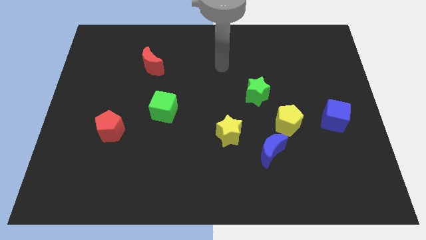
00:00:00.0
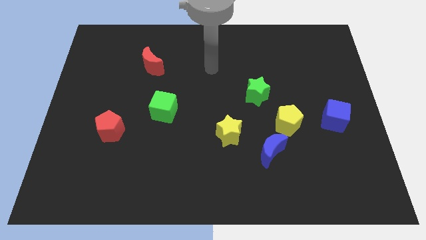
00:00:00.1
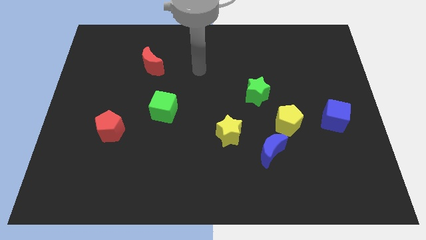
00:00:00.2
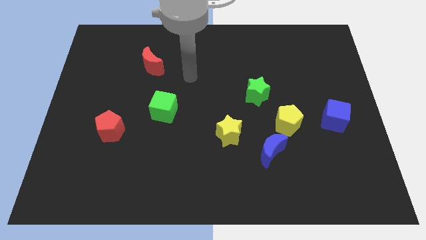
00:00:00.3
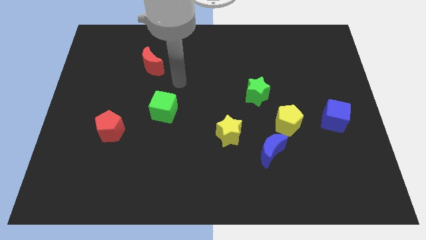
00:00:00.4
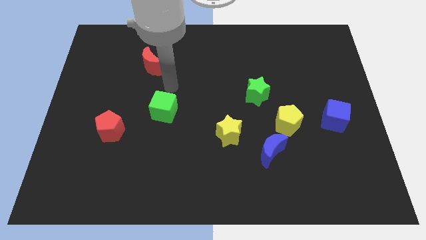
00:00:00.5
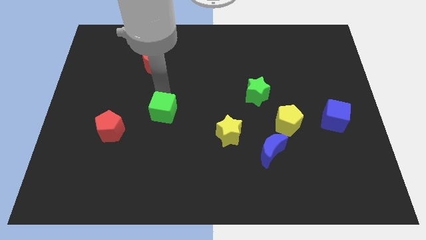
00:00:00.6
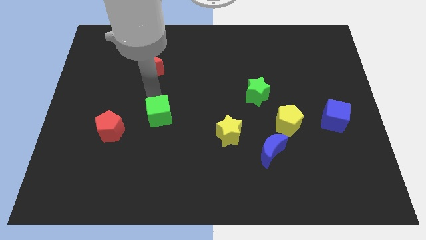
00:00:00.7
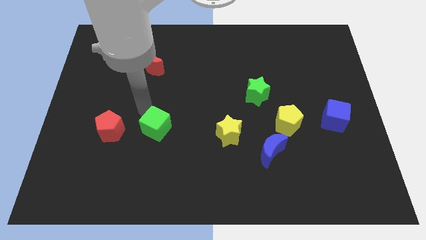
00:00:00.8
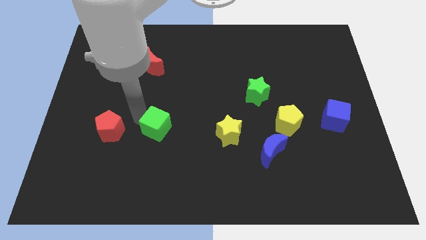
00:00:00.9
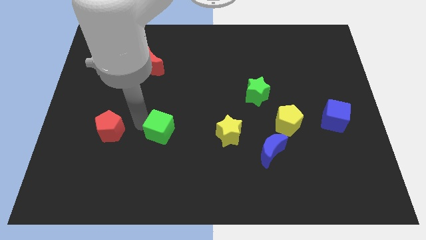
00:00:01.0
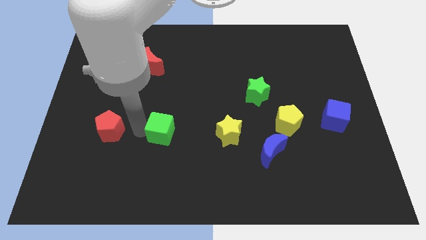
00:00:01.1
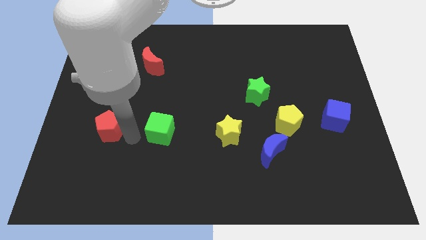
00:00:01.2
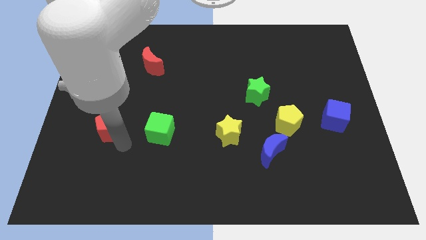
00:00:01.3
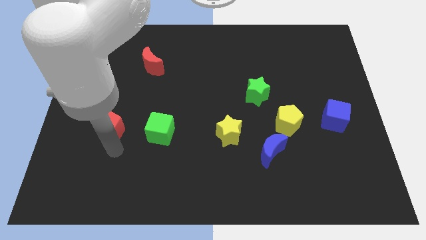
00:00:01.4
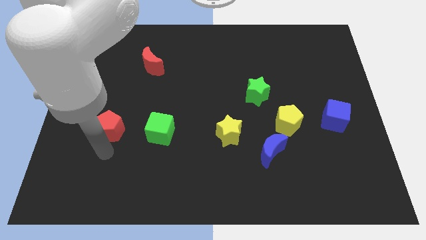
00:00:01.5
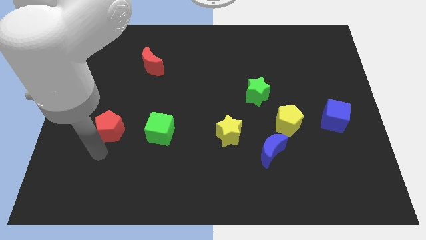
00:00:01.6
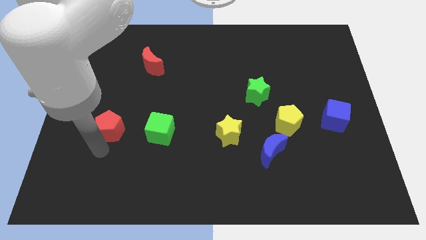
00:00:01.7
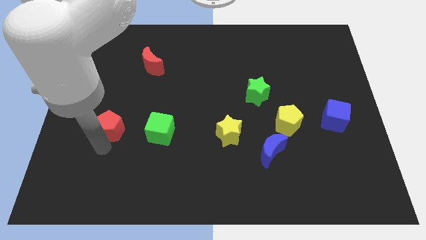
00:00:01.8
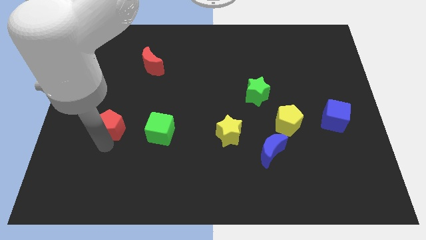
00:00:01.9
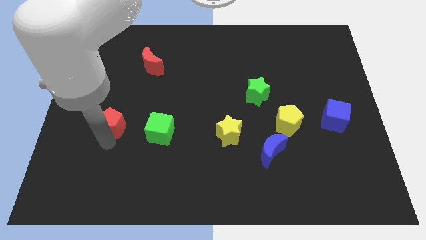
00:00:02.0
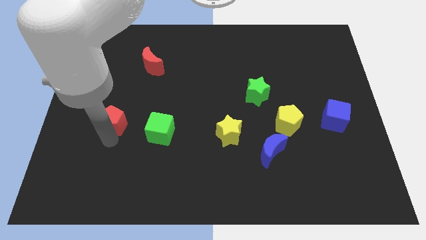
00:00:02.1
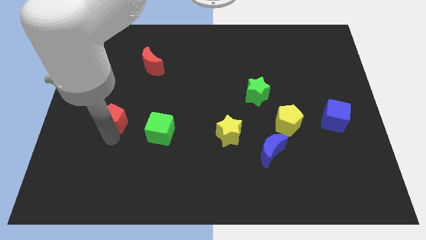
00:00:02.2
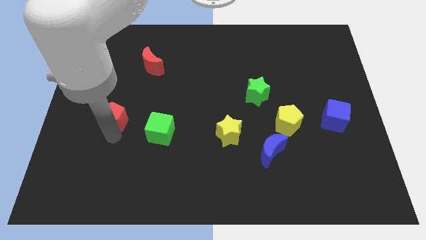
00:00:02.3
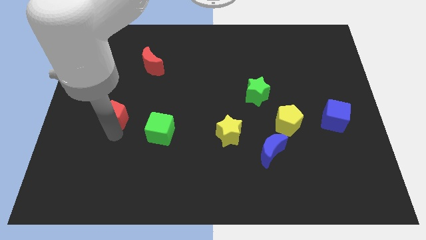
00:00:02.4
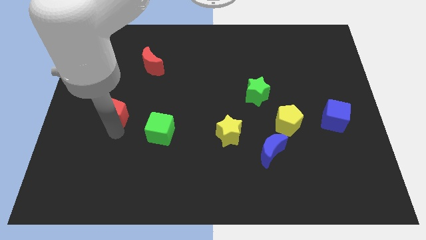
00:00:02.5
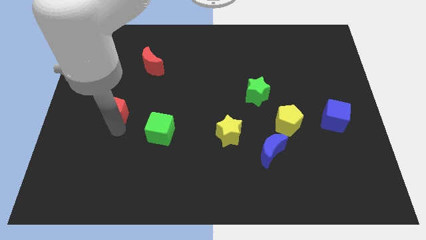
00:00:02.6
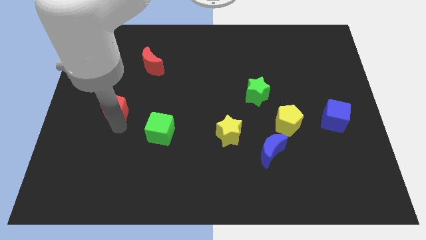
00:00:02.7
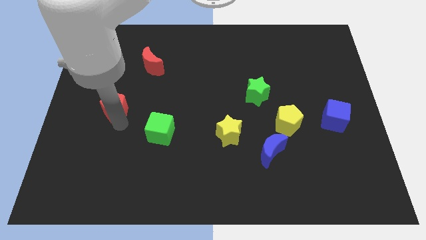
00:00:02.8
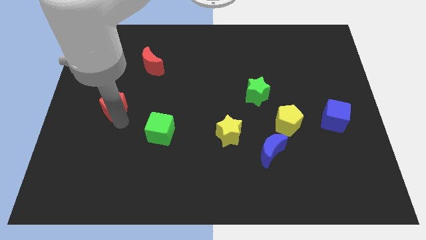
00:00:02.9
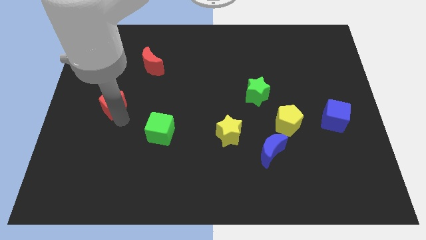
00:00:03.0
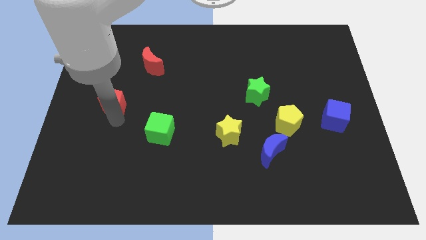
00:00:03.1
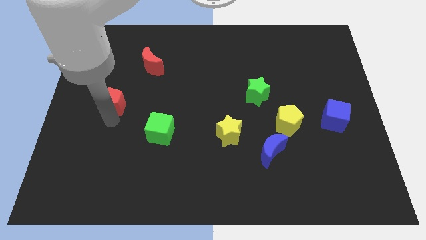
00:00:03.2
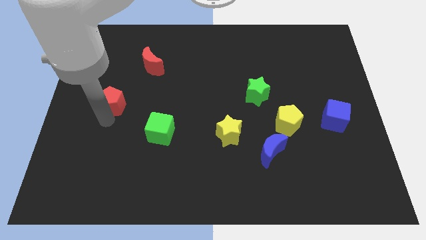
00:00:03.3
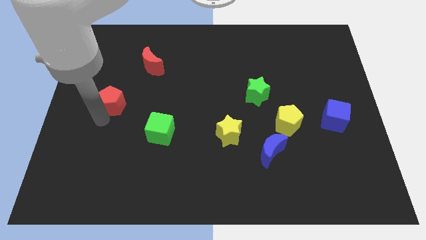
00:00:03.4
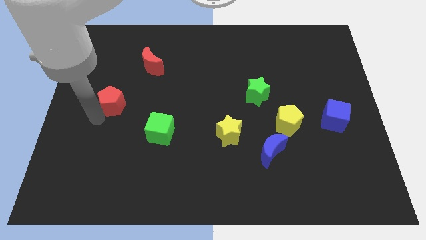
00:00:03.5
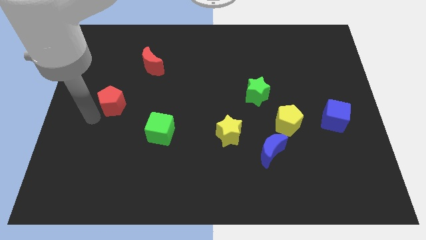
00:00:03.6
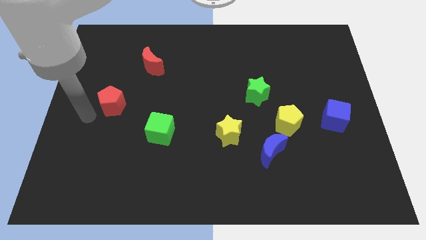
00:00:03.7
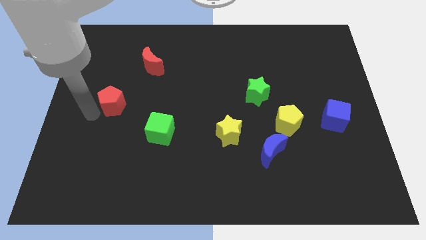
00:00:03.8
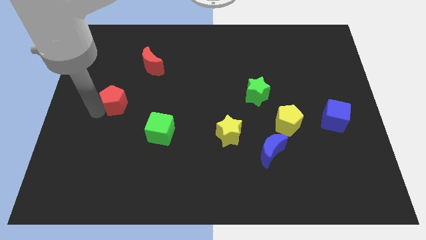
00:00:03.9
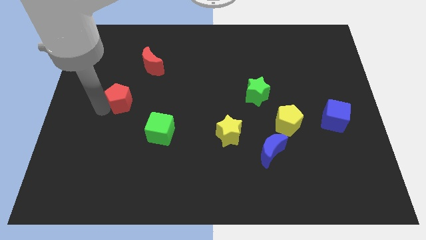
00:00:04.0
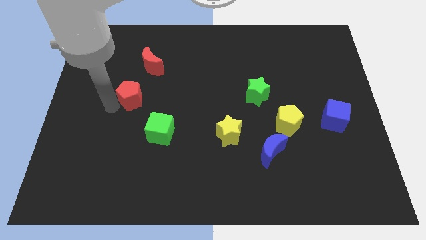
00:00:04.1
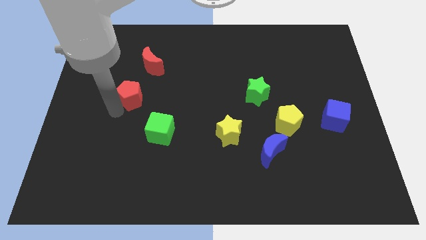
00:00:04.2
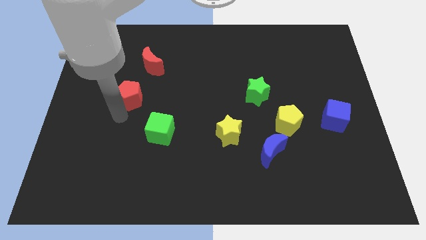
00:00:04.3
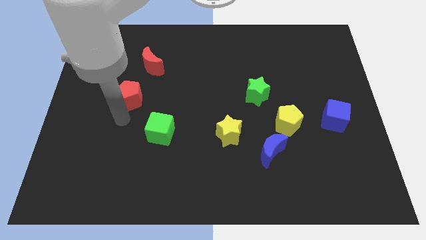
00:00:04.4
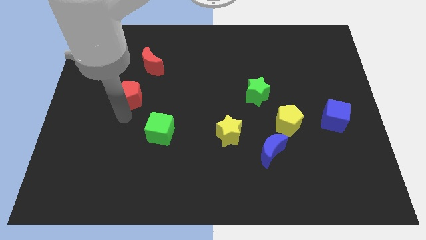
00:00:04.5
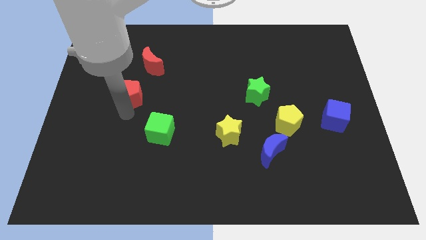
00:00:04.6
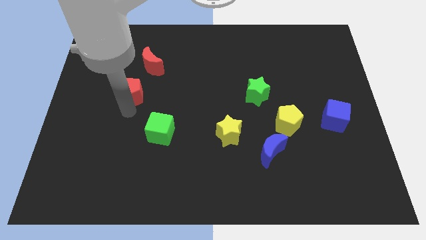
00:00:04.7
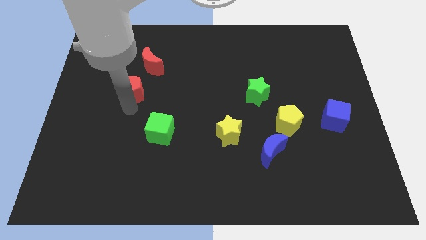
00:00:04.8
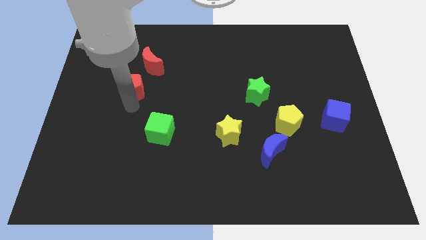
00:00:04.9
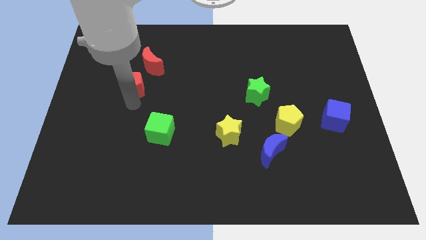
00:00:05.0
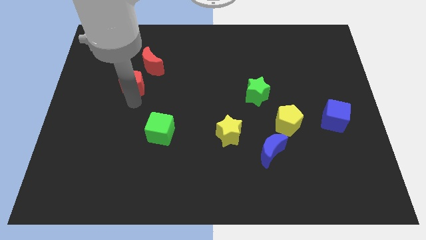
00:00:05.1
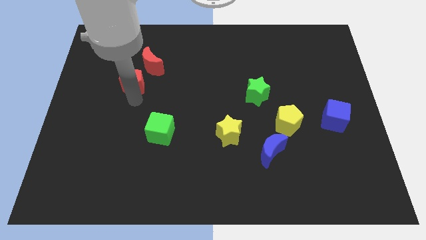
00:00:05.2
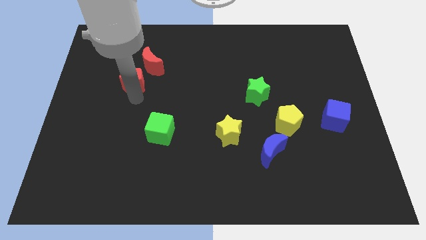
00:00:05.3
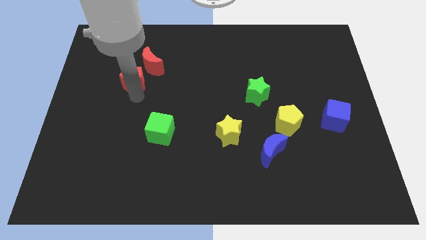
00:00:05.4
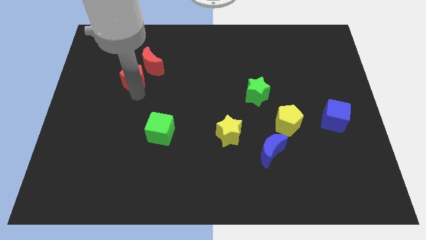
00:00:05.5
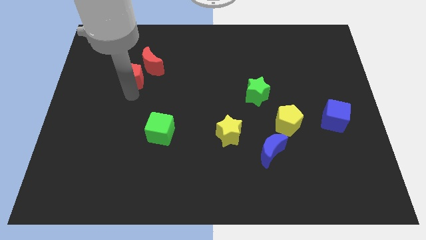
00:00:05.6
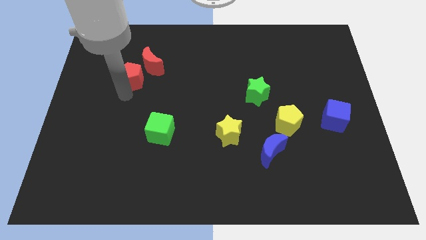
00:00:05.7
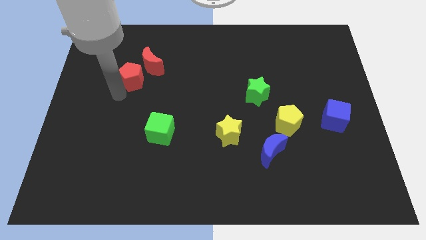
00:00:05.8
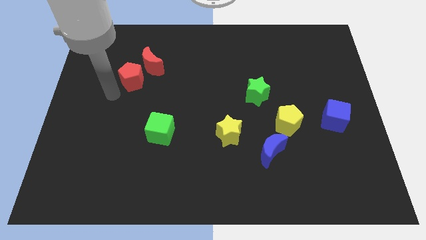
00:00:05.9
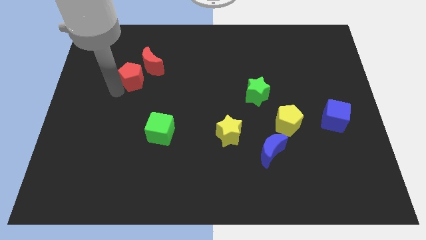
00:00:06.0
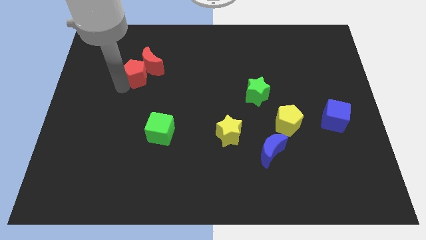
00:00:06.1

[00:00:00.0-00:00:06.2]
slide the red pentagon close to the red moon

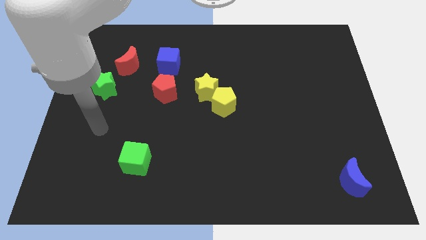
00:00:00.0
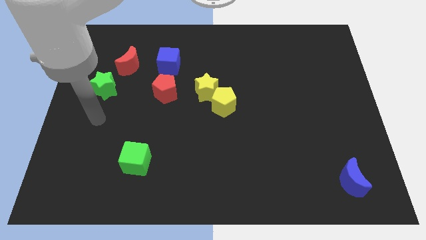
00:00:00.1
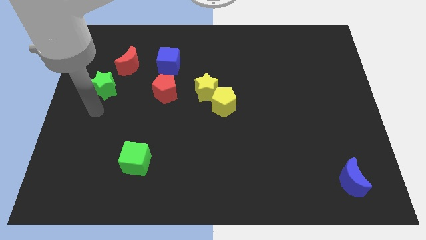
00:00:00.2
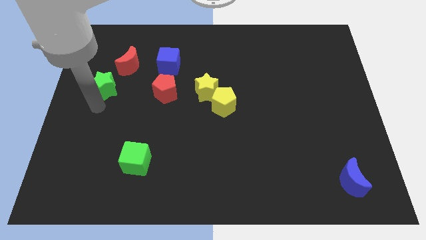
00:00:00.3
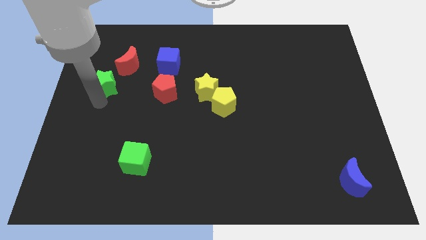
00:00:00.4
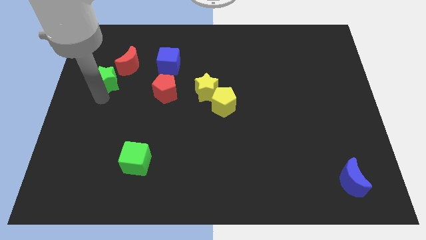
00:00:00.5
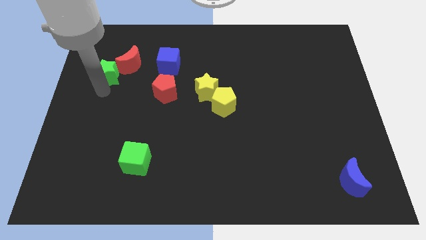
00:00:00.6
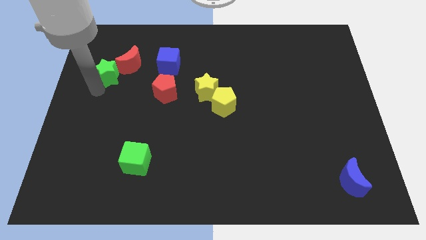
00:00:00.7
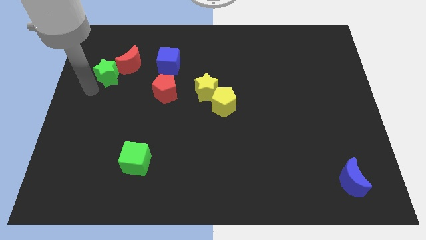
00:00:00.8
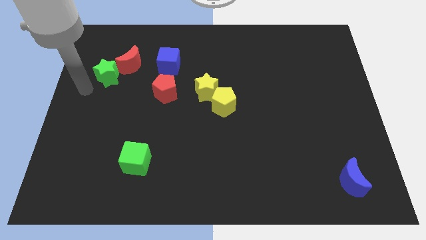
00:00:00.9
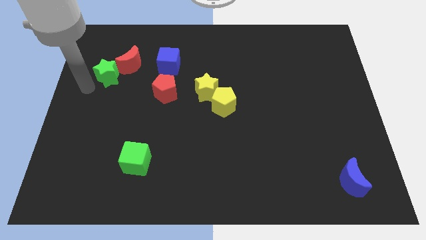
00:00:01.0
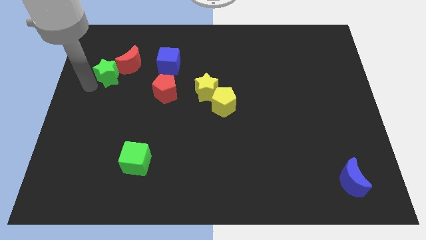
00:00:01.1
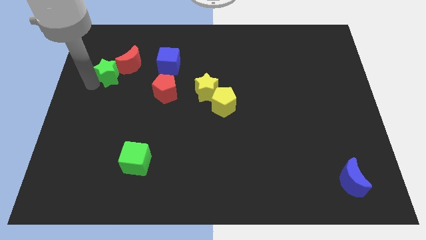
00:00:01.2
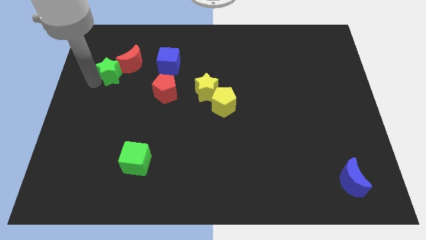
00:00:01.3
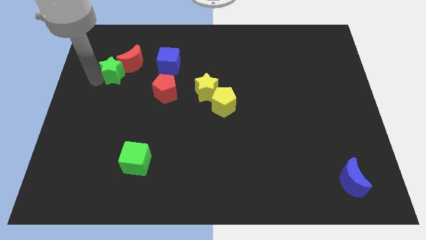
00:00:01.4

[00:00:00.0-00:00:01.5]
push the green star next to the red moon
